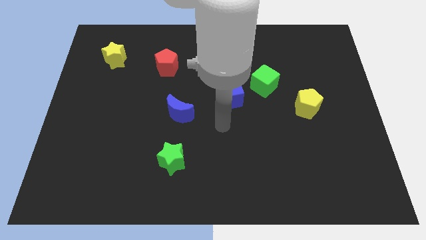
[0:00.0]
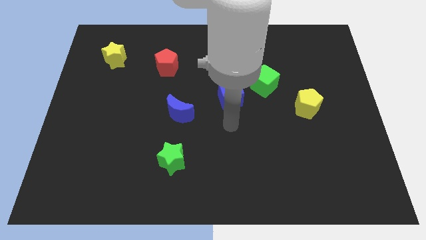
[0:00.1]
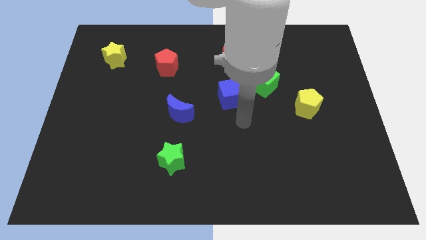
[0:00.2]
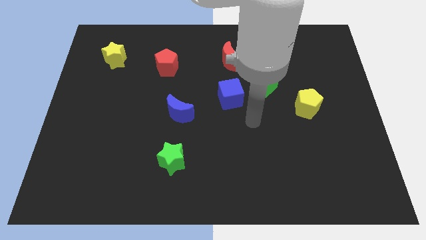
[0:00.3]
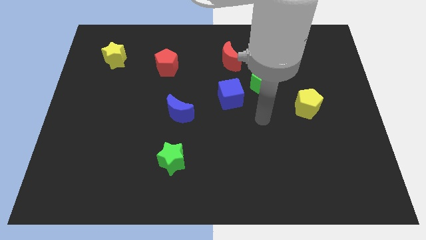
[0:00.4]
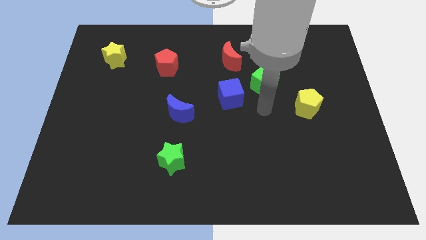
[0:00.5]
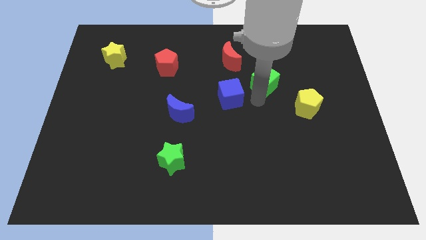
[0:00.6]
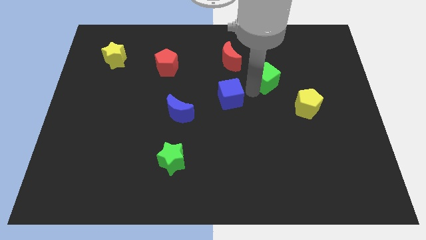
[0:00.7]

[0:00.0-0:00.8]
move the blue cube away from the green cube

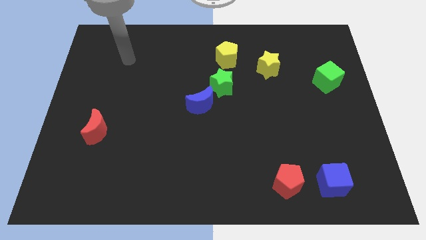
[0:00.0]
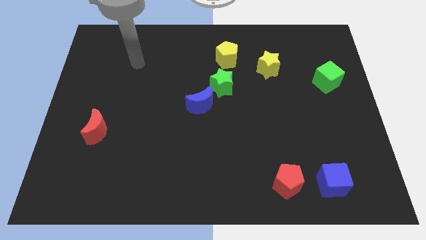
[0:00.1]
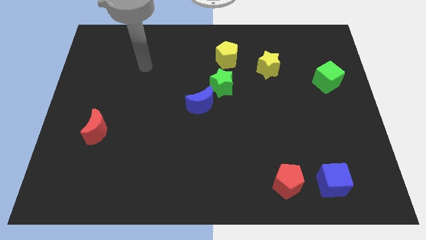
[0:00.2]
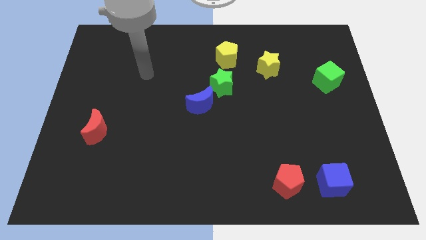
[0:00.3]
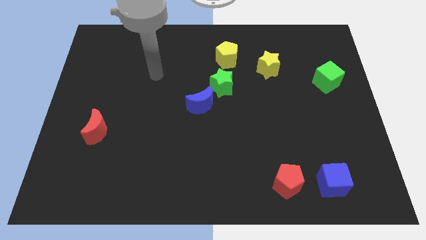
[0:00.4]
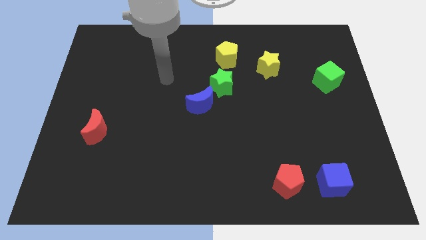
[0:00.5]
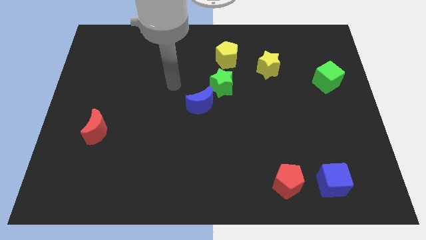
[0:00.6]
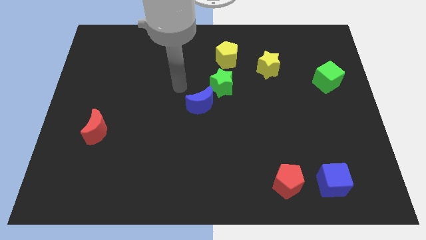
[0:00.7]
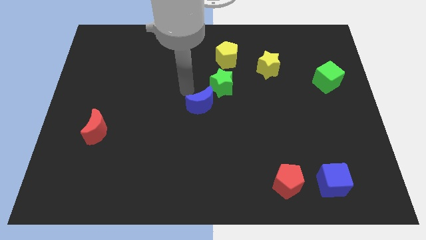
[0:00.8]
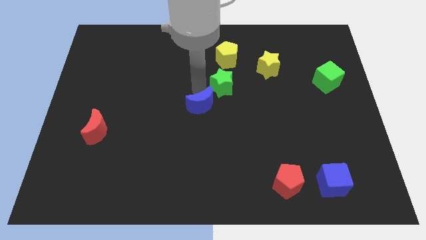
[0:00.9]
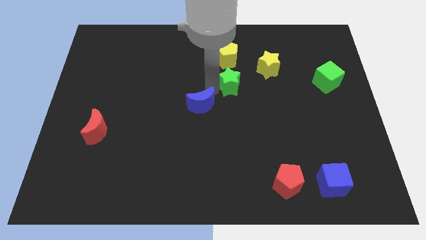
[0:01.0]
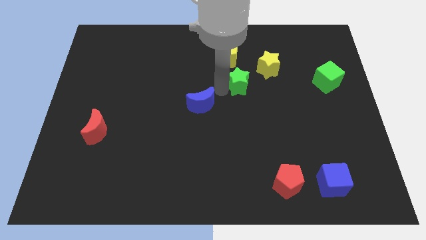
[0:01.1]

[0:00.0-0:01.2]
pull the blue moon apart from the green star

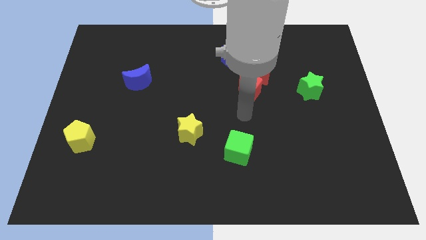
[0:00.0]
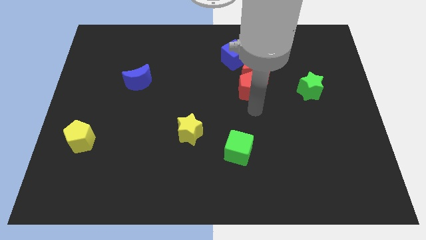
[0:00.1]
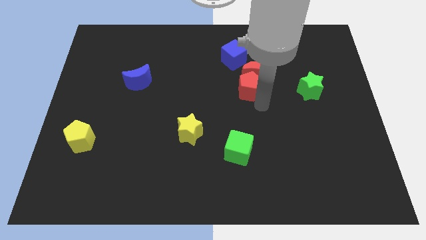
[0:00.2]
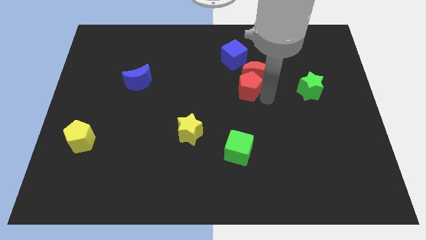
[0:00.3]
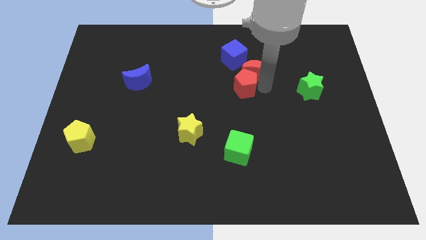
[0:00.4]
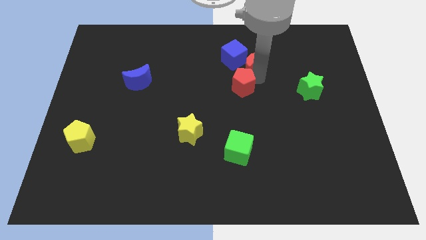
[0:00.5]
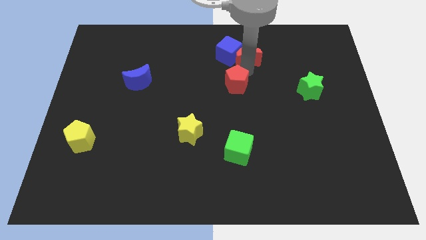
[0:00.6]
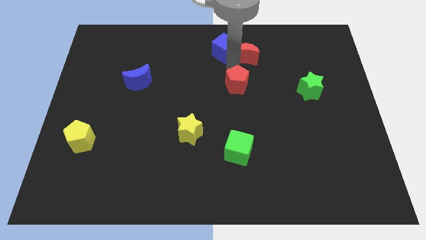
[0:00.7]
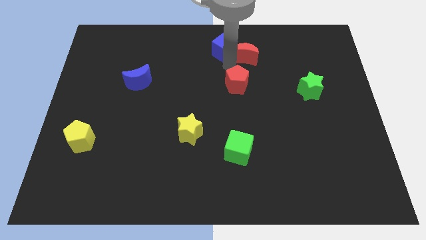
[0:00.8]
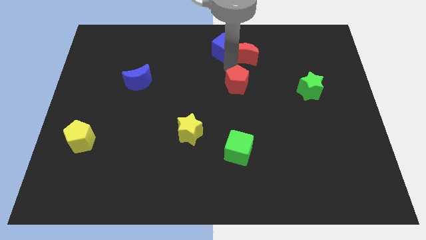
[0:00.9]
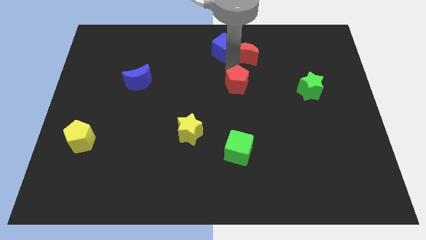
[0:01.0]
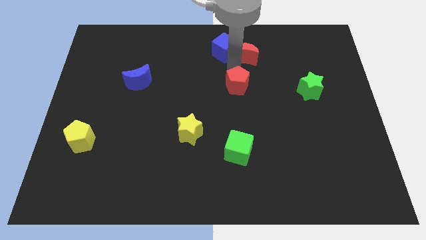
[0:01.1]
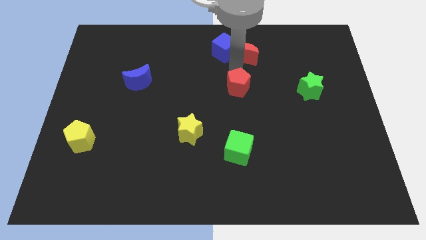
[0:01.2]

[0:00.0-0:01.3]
separate the red pentagon from the red moon

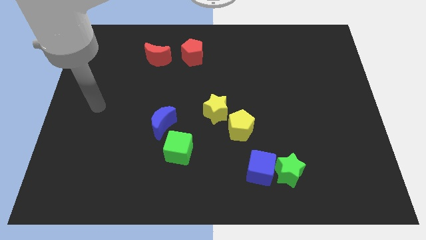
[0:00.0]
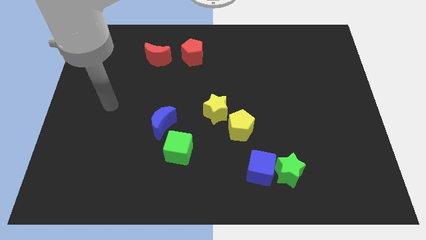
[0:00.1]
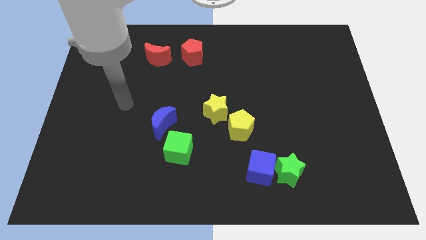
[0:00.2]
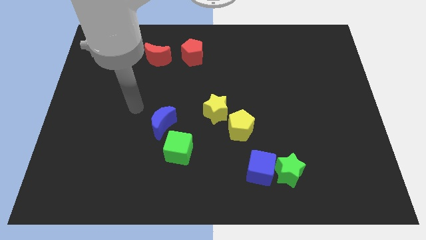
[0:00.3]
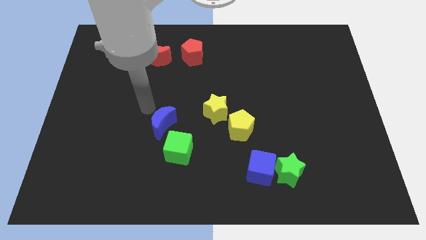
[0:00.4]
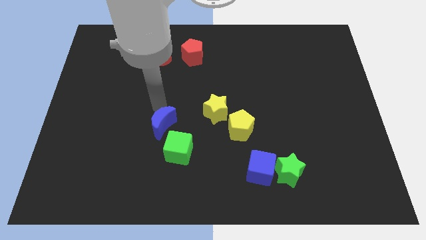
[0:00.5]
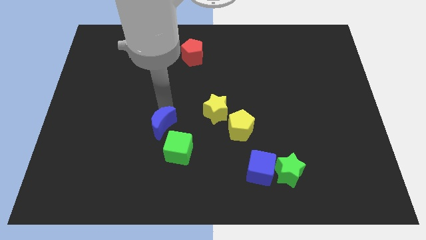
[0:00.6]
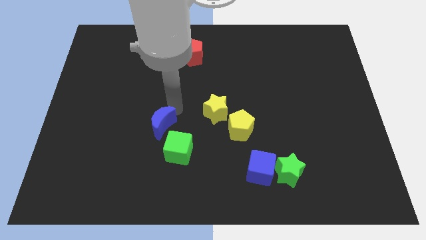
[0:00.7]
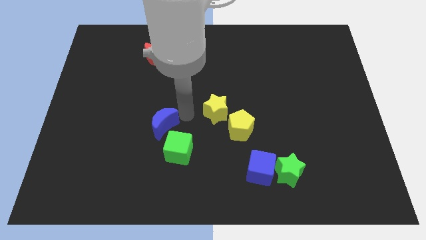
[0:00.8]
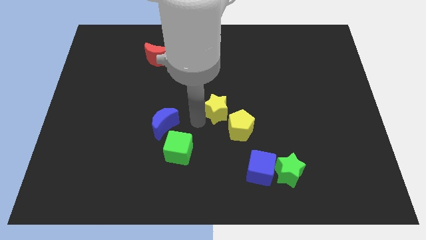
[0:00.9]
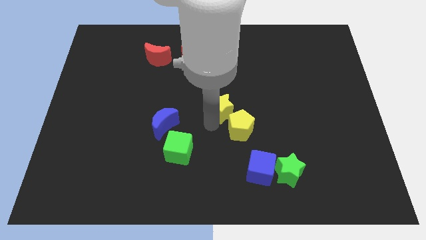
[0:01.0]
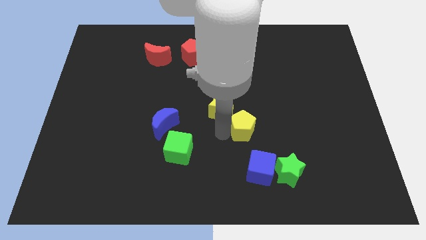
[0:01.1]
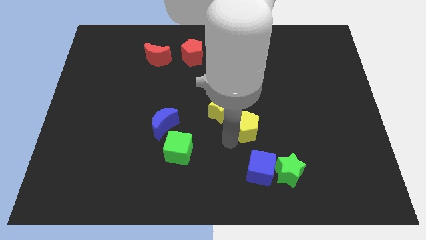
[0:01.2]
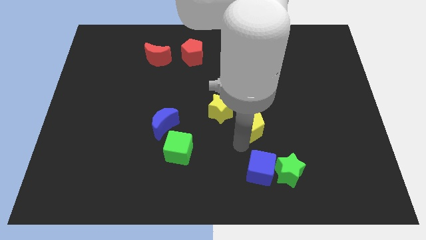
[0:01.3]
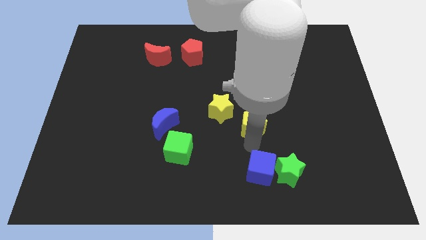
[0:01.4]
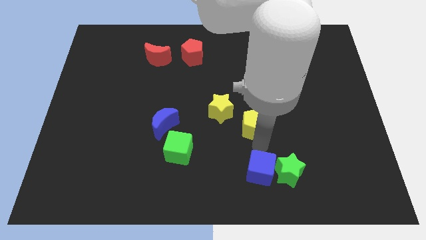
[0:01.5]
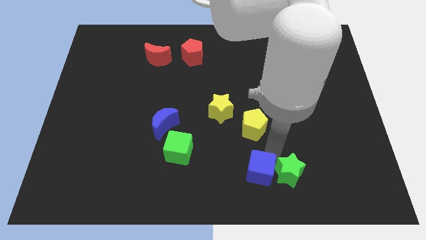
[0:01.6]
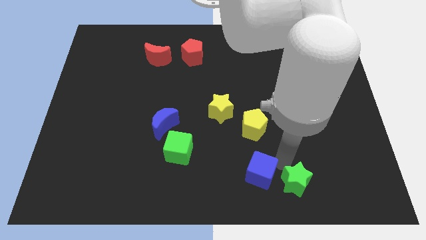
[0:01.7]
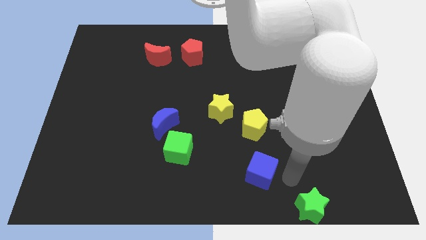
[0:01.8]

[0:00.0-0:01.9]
move the blue cube away from the green star

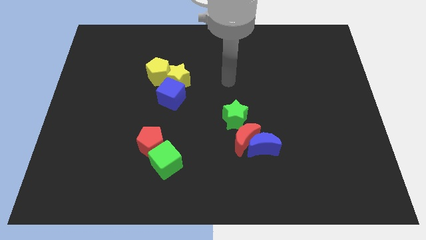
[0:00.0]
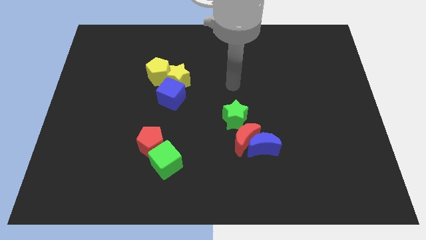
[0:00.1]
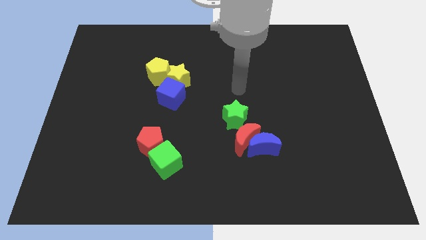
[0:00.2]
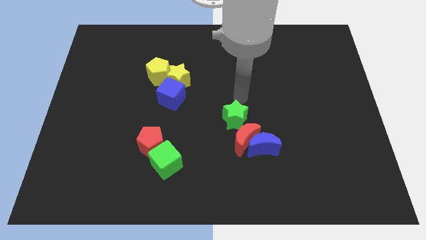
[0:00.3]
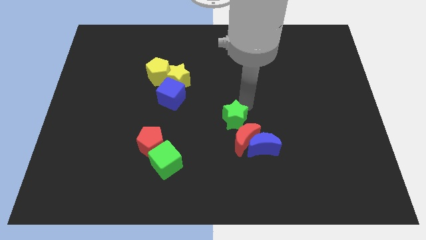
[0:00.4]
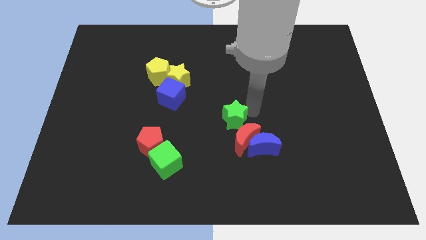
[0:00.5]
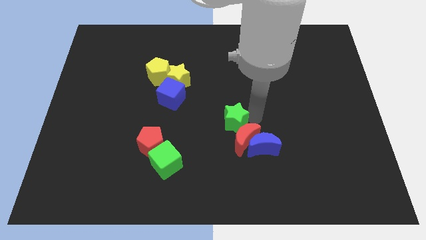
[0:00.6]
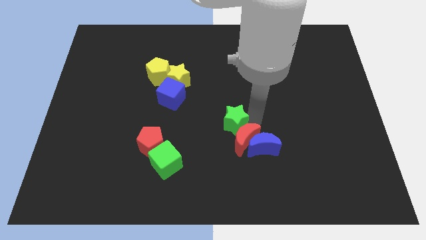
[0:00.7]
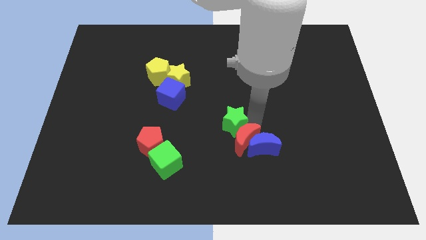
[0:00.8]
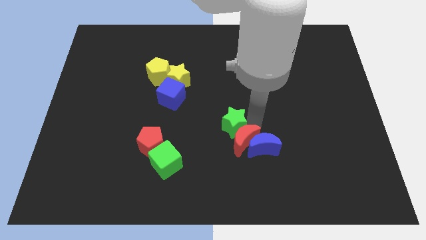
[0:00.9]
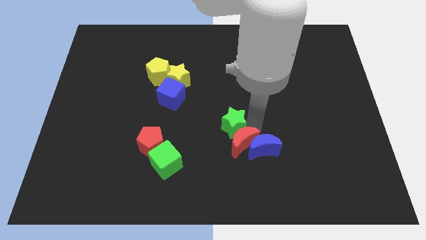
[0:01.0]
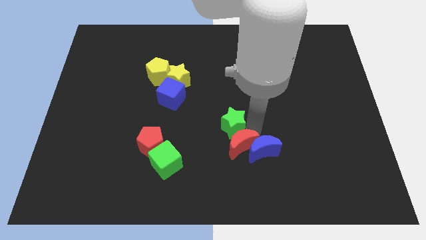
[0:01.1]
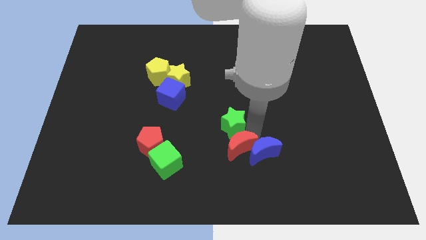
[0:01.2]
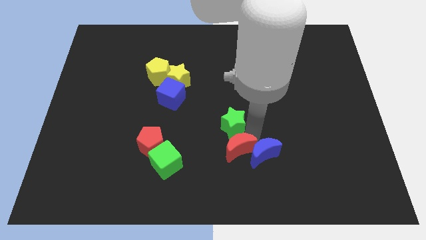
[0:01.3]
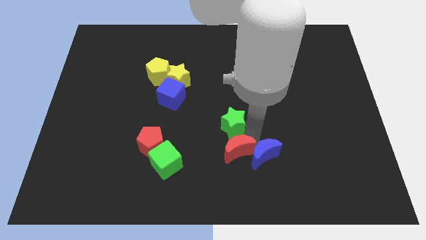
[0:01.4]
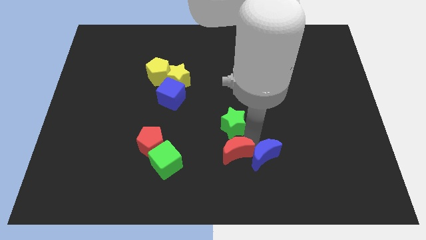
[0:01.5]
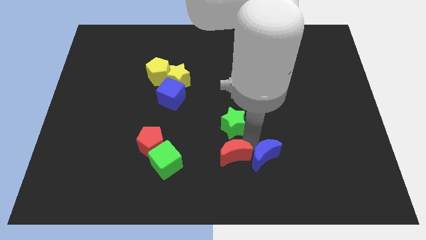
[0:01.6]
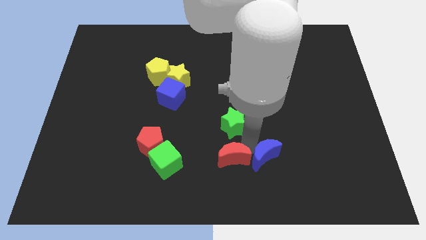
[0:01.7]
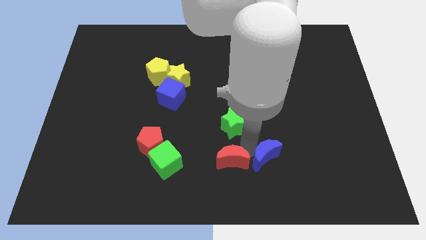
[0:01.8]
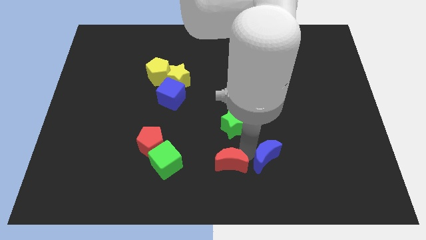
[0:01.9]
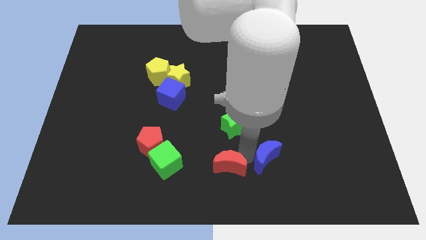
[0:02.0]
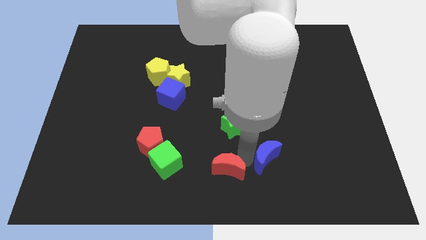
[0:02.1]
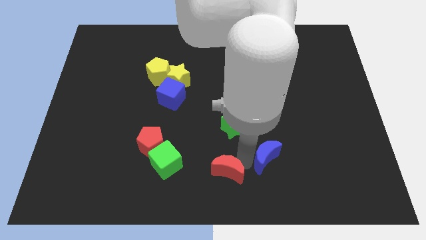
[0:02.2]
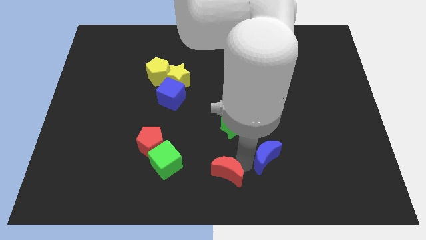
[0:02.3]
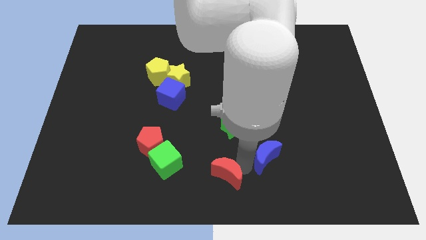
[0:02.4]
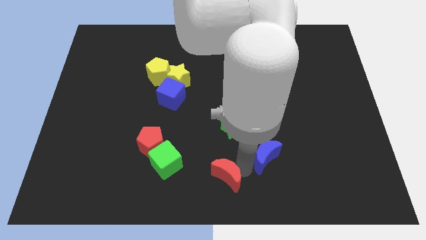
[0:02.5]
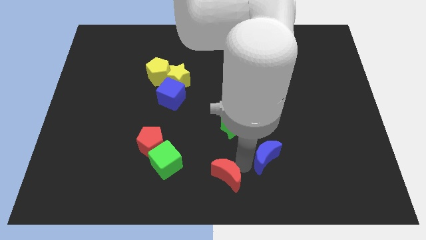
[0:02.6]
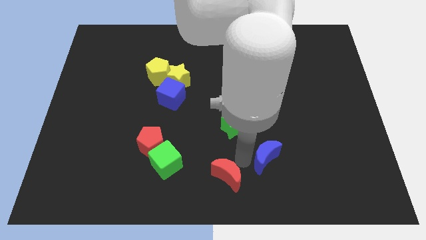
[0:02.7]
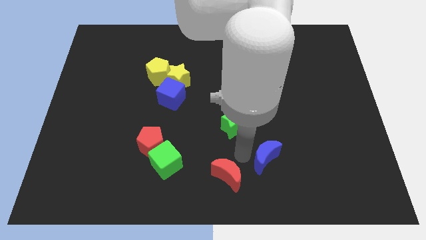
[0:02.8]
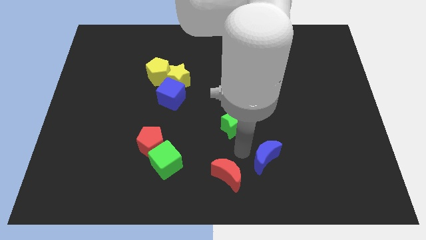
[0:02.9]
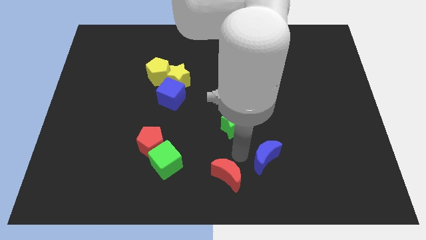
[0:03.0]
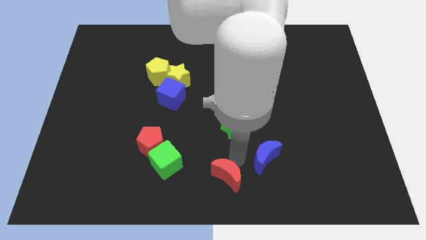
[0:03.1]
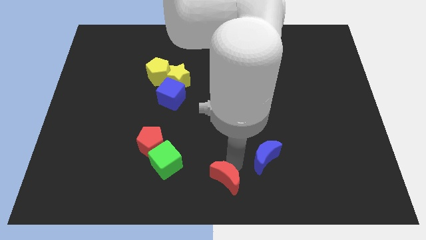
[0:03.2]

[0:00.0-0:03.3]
move the red moon away from the blue moon and green star

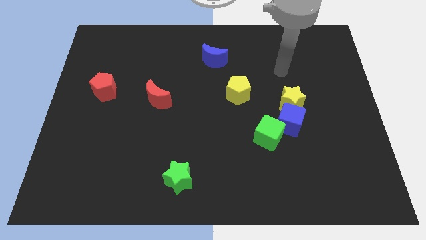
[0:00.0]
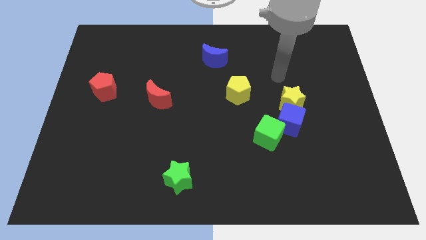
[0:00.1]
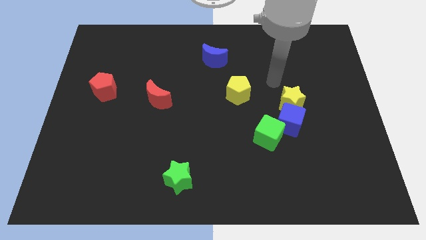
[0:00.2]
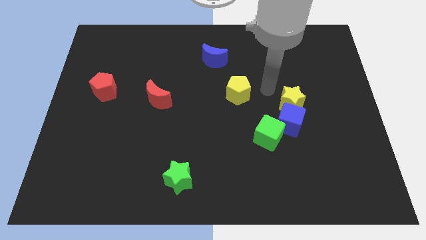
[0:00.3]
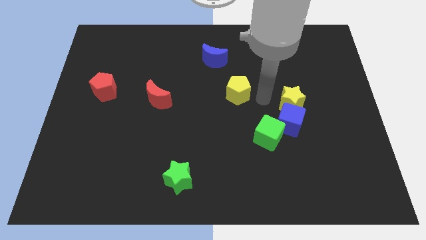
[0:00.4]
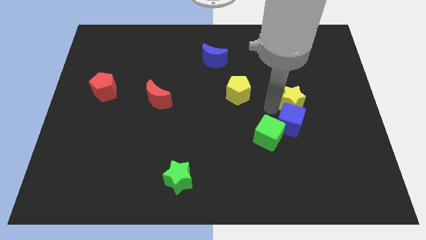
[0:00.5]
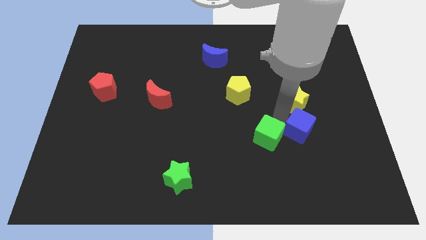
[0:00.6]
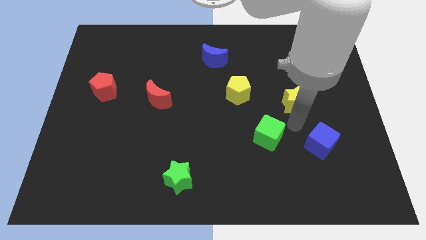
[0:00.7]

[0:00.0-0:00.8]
move the yellow star away from the blue cube
